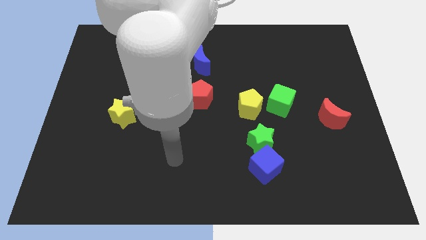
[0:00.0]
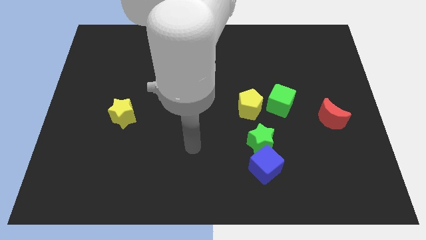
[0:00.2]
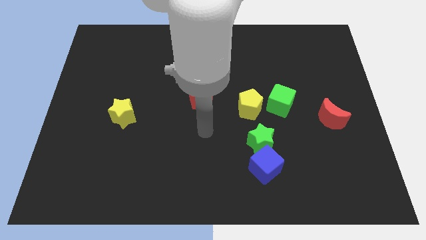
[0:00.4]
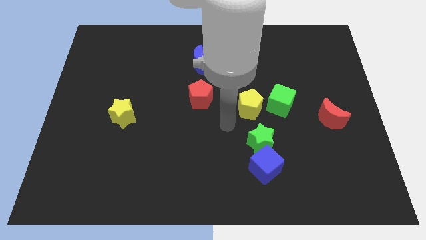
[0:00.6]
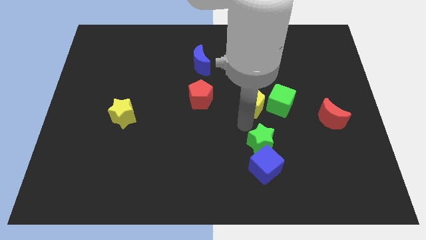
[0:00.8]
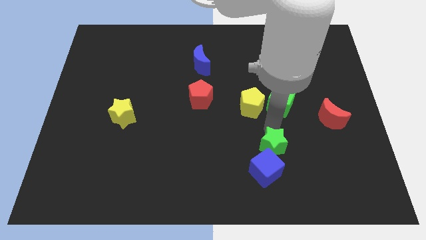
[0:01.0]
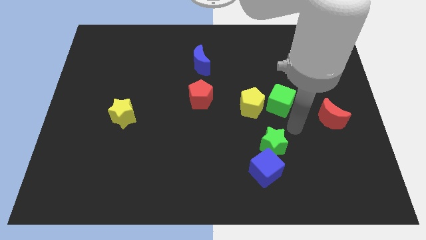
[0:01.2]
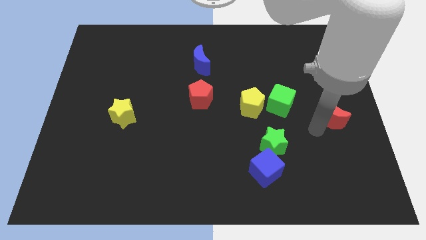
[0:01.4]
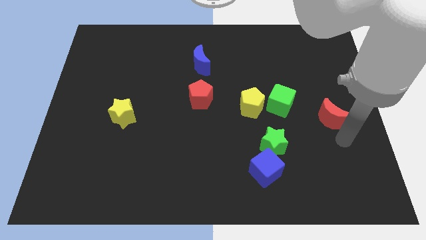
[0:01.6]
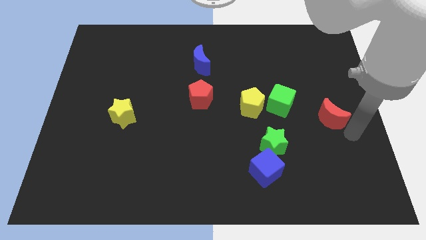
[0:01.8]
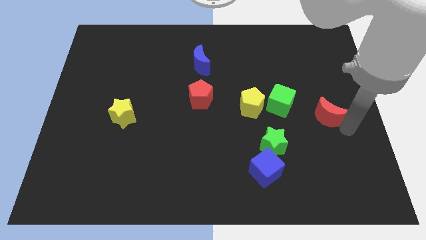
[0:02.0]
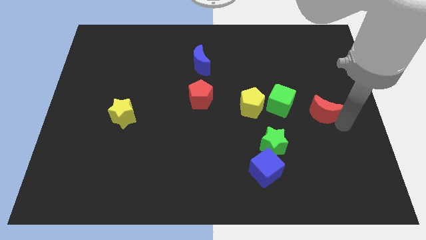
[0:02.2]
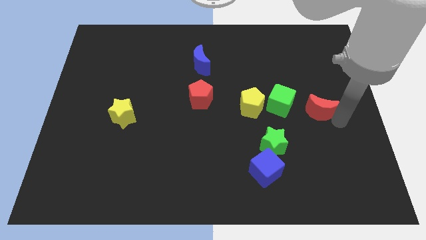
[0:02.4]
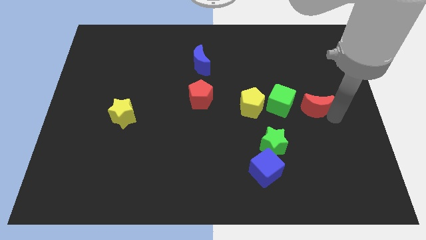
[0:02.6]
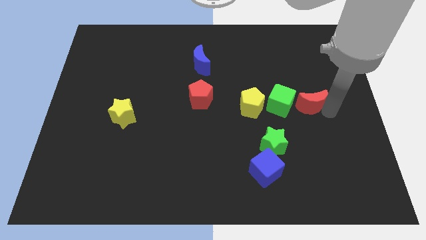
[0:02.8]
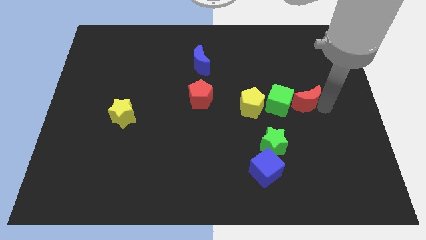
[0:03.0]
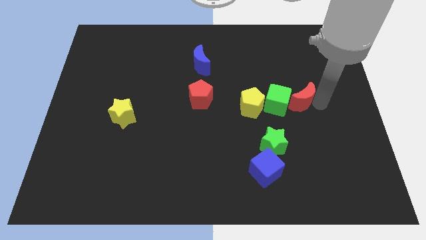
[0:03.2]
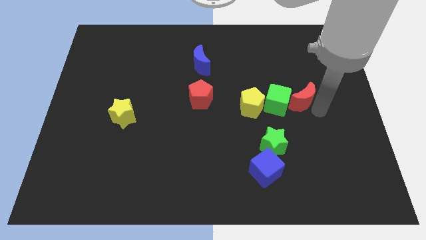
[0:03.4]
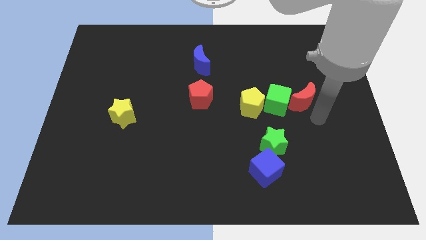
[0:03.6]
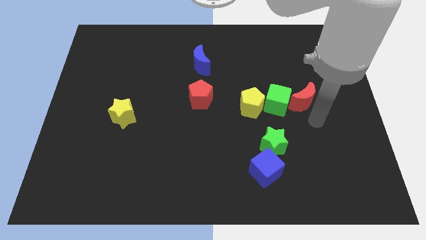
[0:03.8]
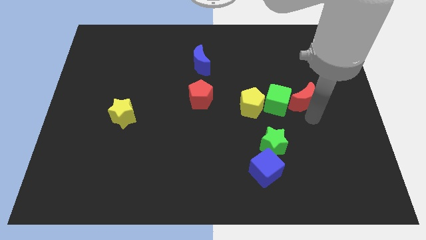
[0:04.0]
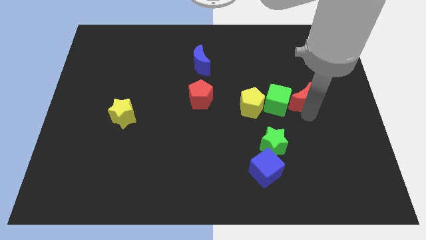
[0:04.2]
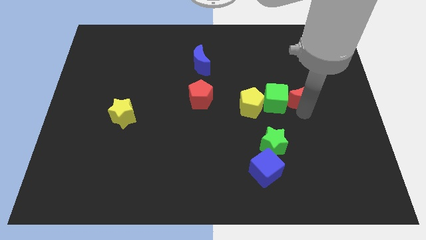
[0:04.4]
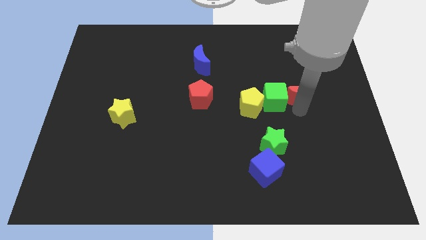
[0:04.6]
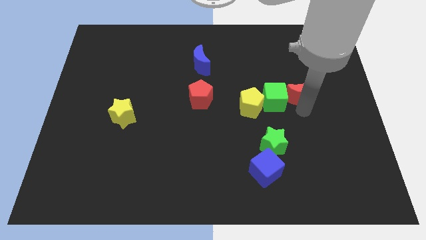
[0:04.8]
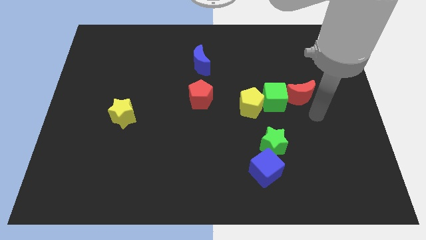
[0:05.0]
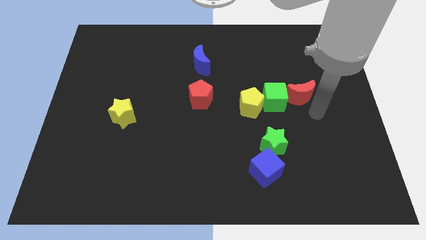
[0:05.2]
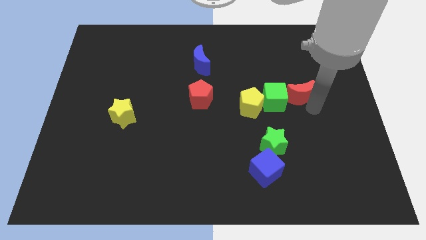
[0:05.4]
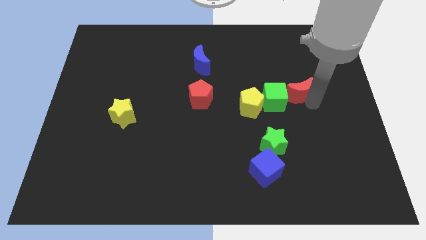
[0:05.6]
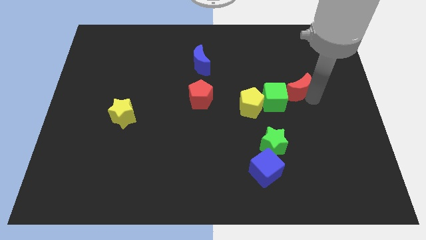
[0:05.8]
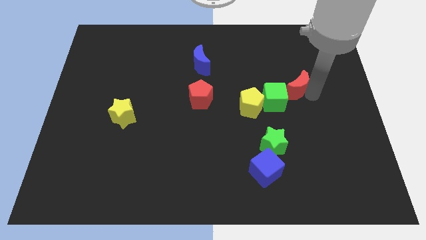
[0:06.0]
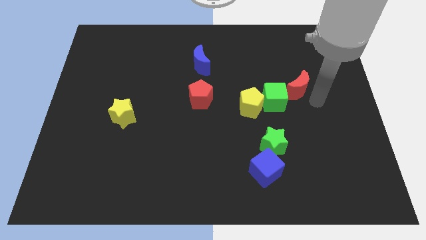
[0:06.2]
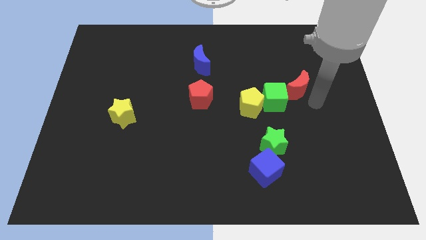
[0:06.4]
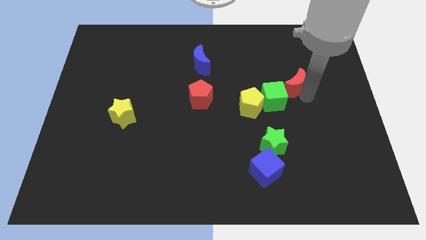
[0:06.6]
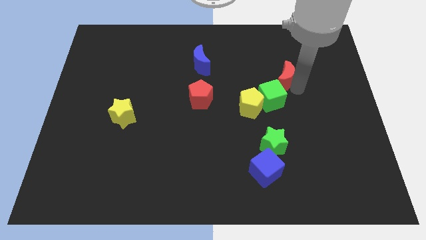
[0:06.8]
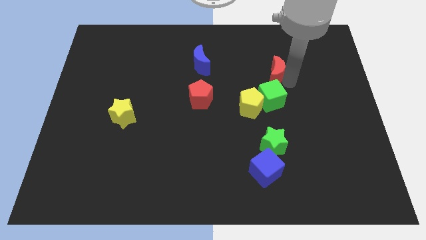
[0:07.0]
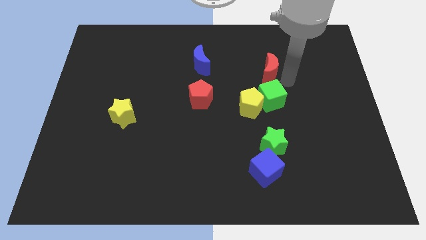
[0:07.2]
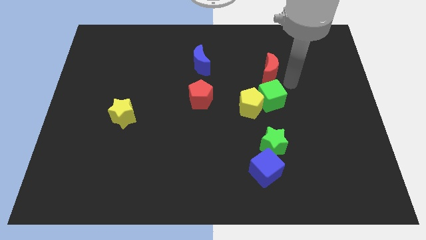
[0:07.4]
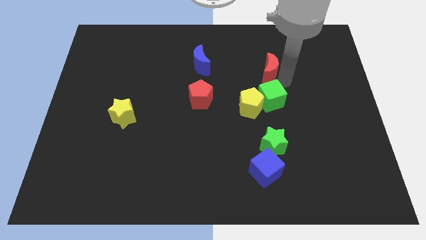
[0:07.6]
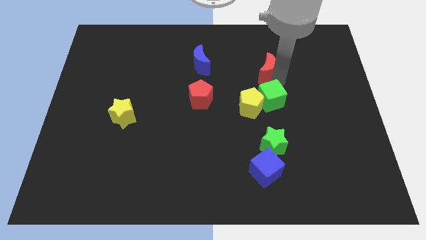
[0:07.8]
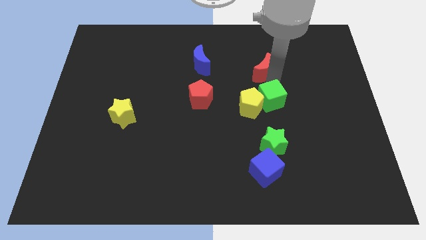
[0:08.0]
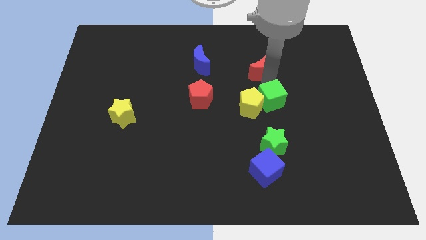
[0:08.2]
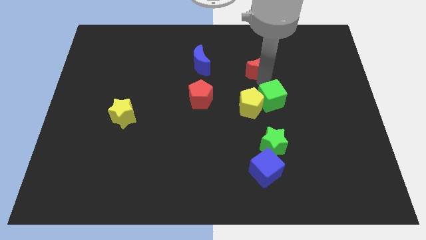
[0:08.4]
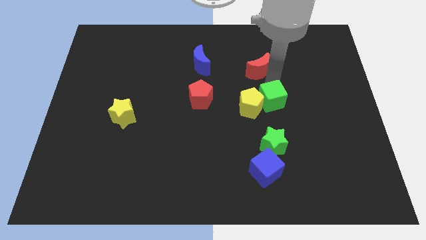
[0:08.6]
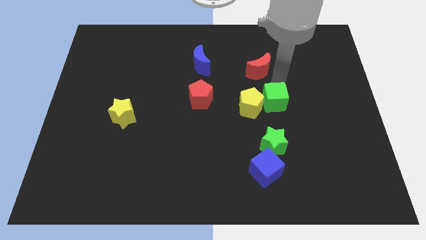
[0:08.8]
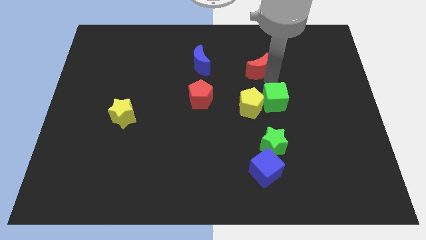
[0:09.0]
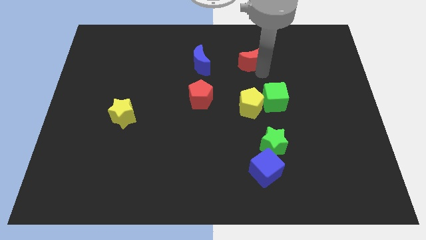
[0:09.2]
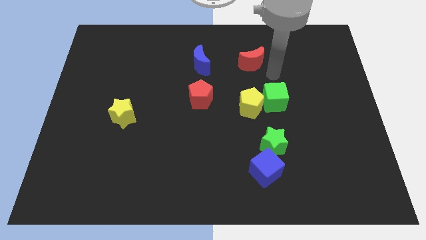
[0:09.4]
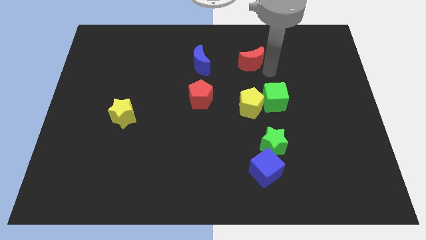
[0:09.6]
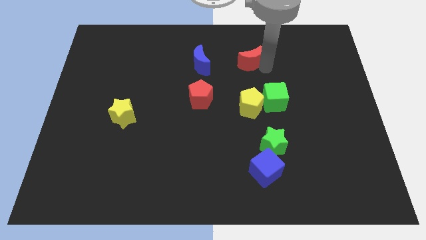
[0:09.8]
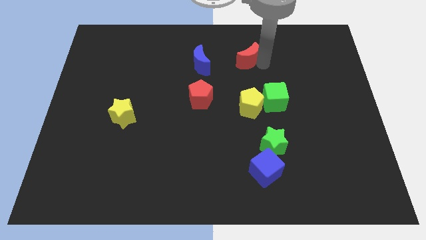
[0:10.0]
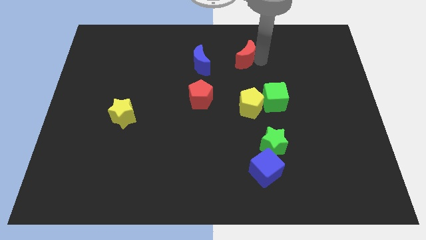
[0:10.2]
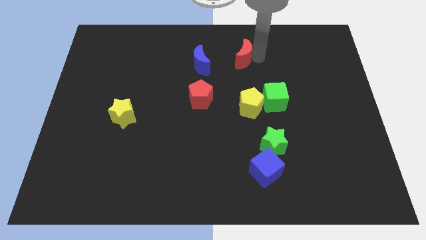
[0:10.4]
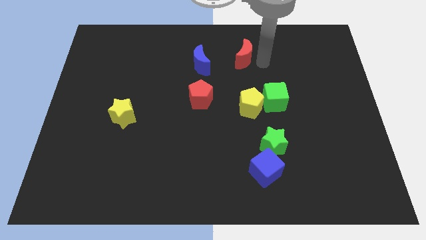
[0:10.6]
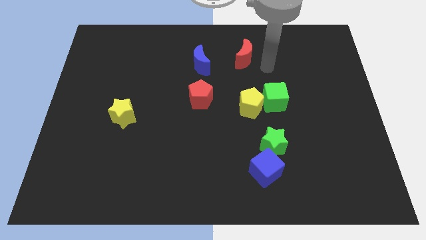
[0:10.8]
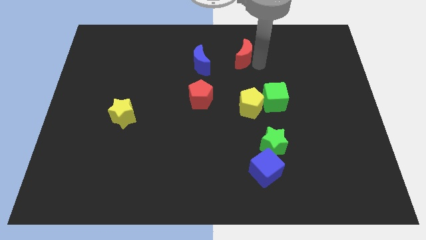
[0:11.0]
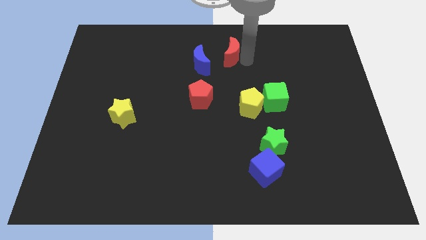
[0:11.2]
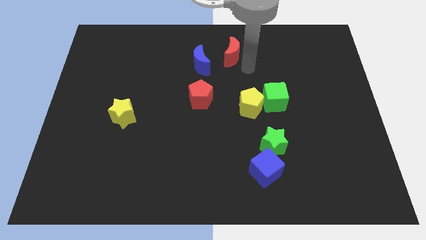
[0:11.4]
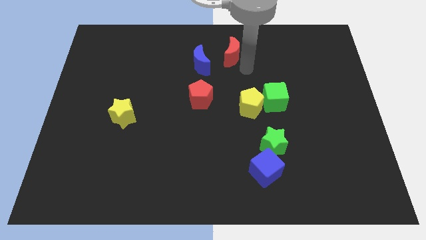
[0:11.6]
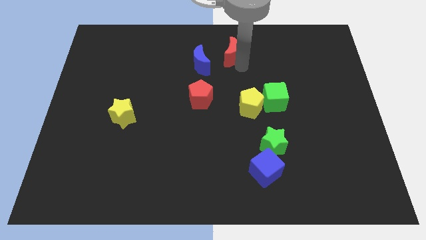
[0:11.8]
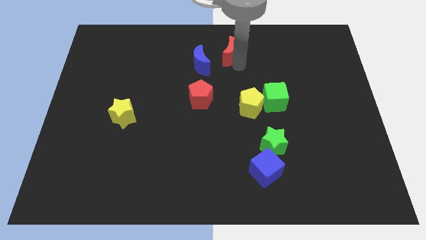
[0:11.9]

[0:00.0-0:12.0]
slide the red moon to the towards your base
